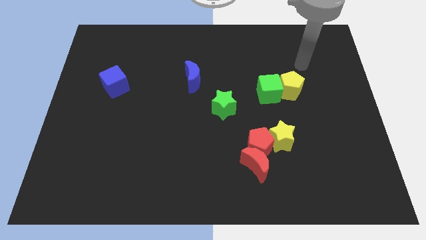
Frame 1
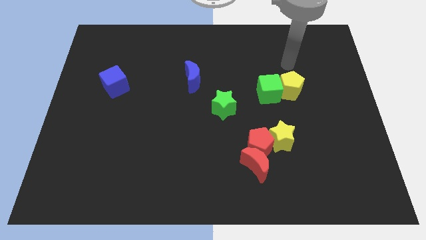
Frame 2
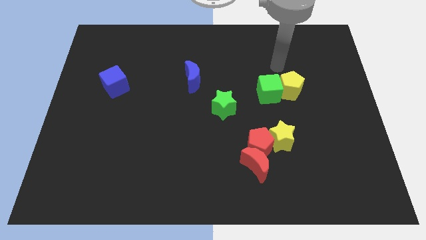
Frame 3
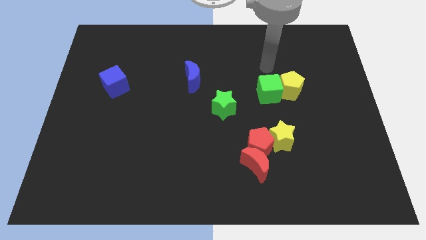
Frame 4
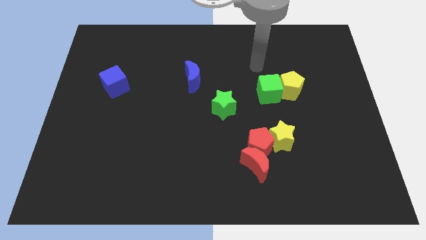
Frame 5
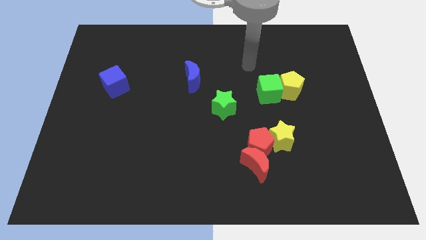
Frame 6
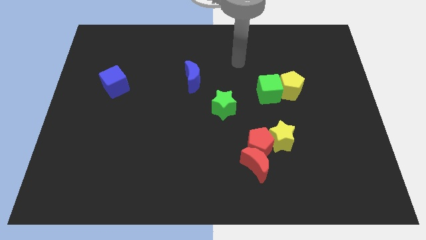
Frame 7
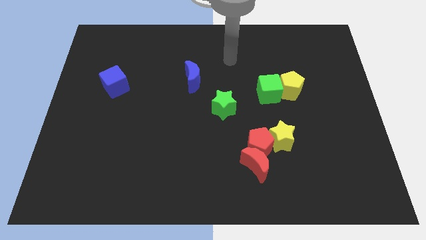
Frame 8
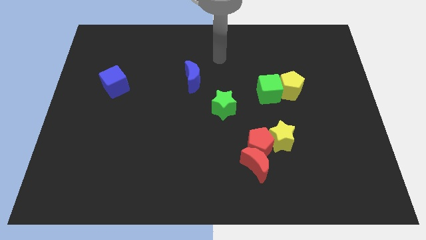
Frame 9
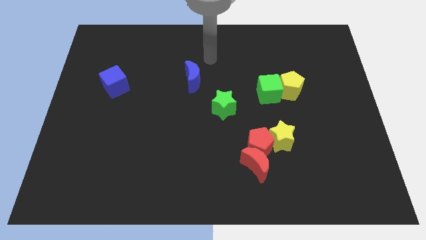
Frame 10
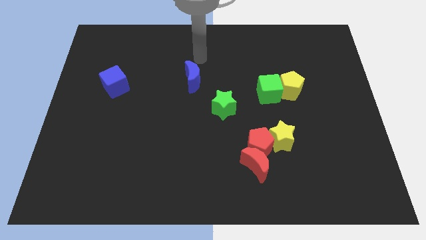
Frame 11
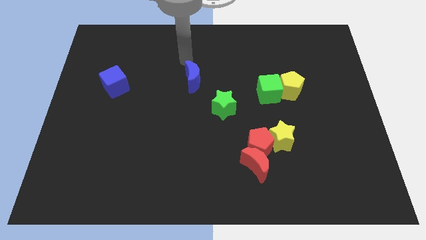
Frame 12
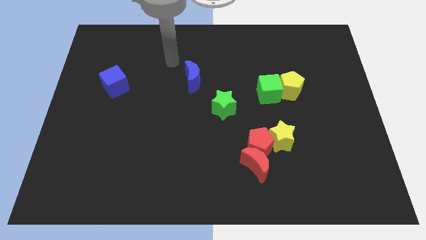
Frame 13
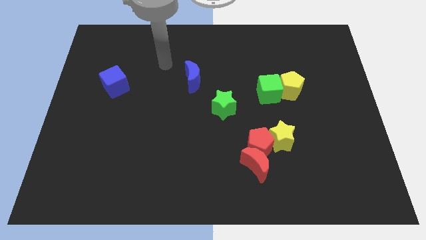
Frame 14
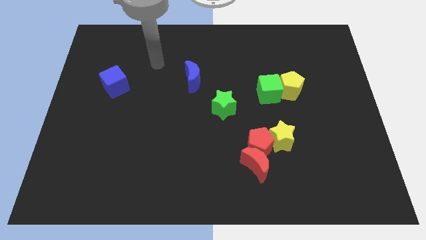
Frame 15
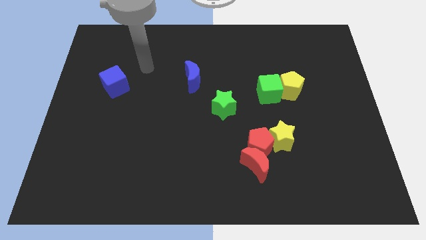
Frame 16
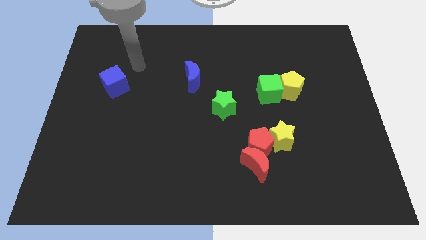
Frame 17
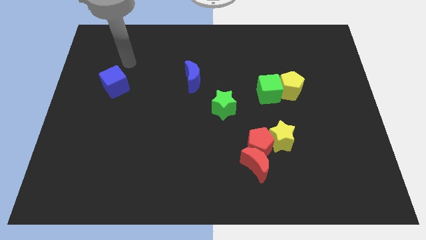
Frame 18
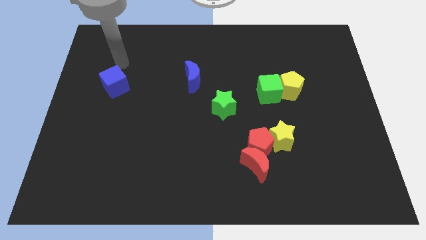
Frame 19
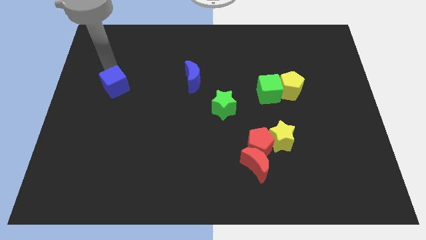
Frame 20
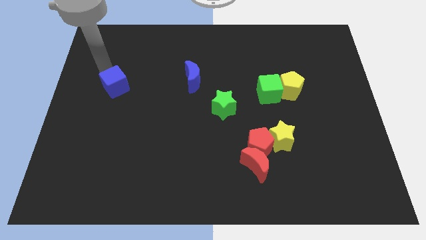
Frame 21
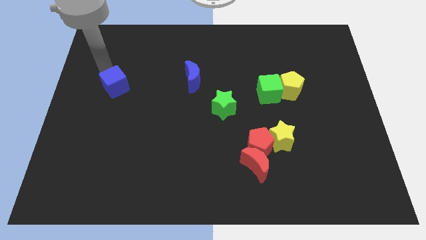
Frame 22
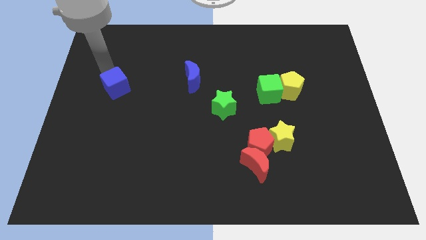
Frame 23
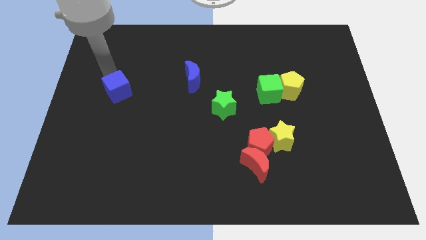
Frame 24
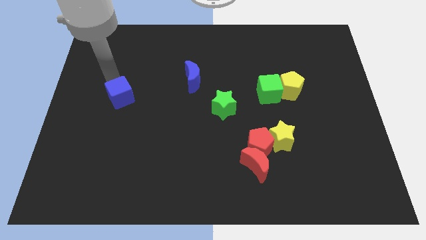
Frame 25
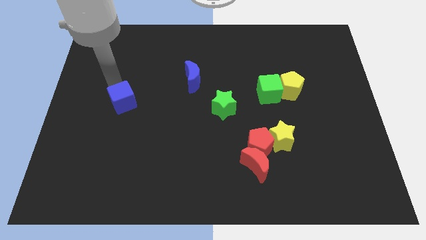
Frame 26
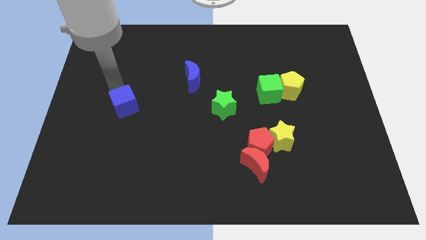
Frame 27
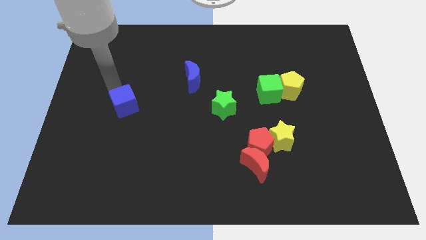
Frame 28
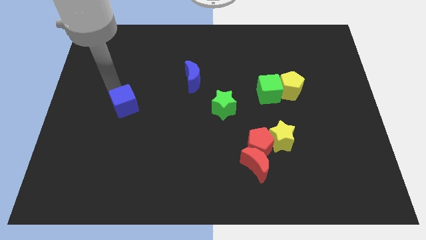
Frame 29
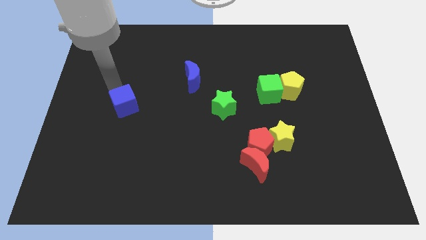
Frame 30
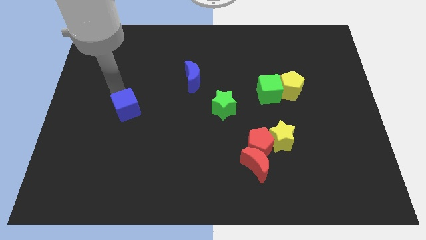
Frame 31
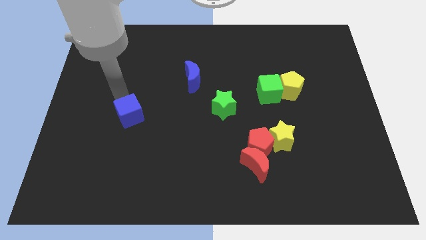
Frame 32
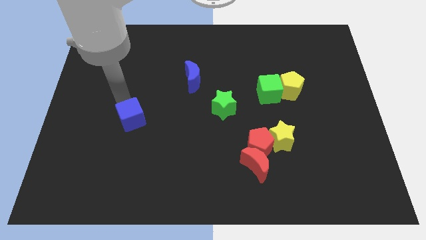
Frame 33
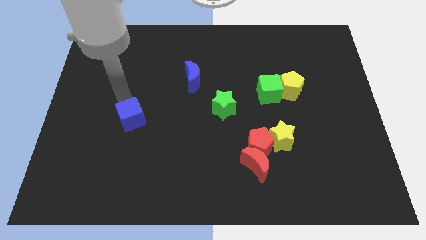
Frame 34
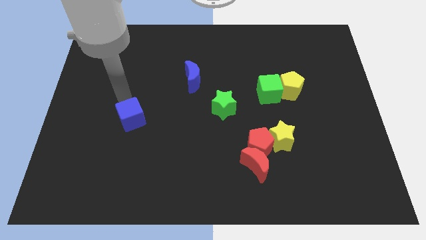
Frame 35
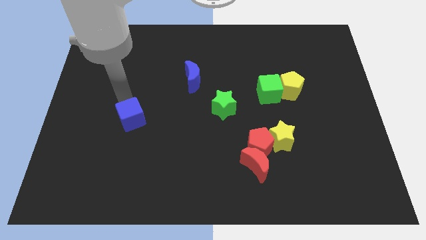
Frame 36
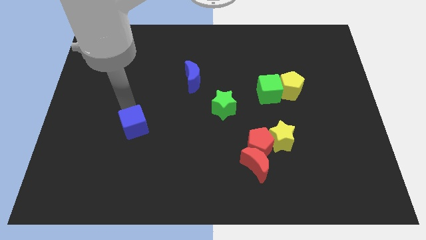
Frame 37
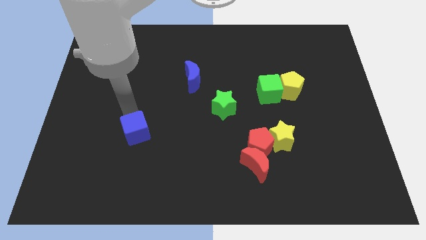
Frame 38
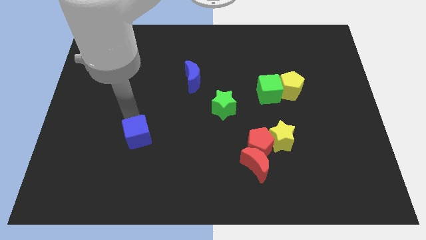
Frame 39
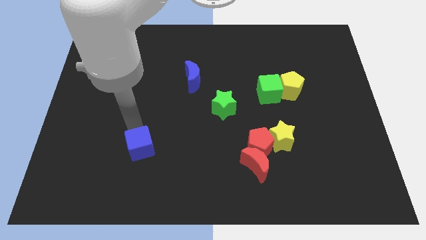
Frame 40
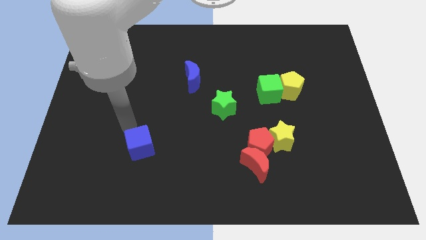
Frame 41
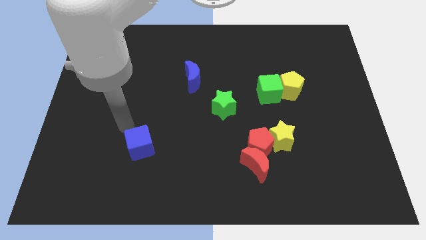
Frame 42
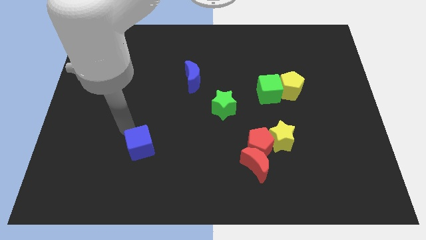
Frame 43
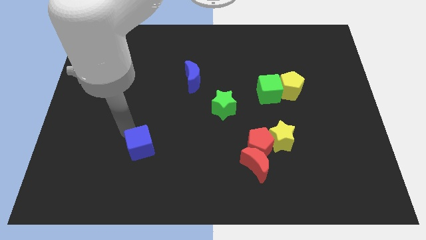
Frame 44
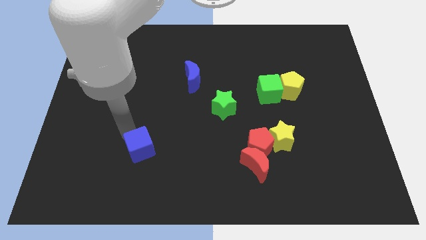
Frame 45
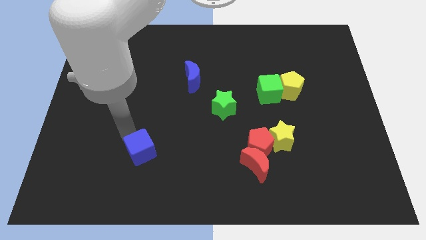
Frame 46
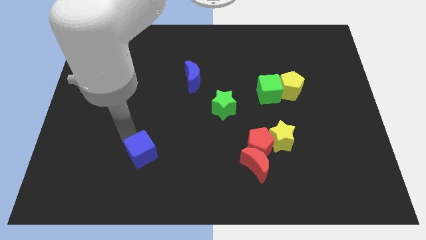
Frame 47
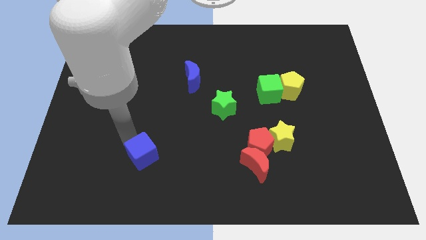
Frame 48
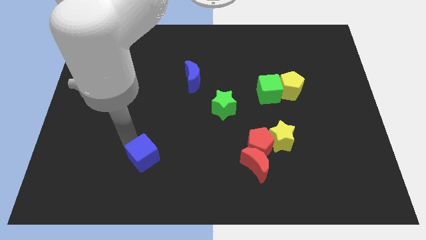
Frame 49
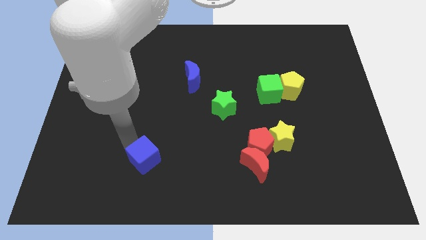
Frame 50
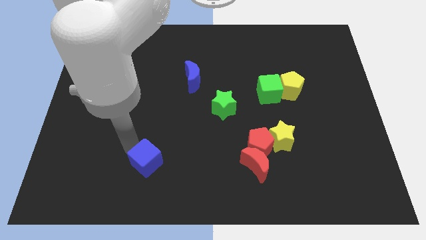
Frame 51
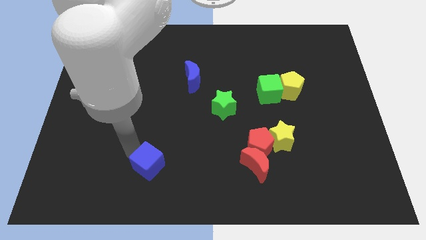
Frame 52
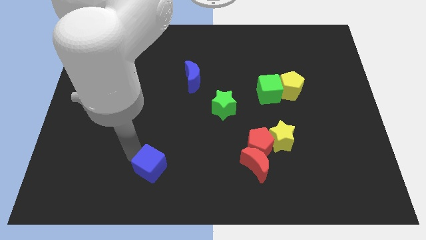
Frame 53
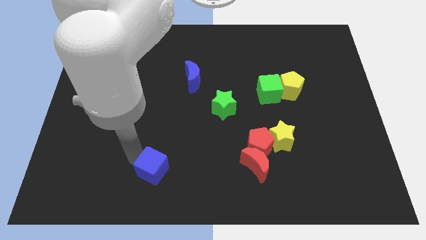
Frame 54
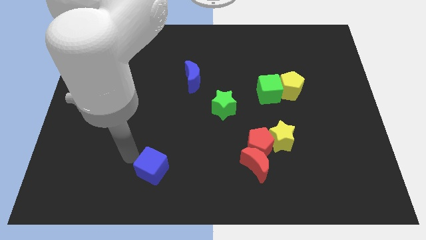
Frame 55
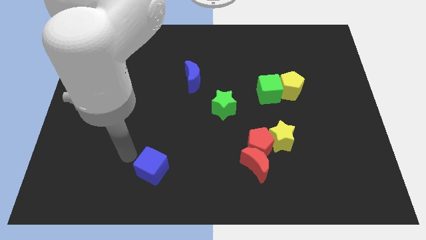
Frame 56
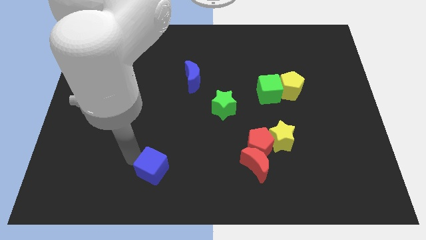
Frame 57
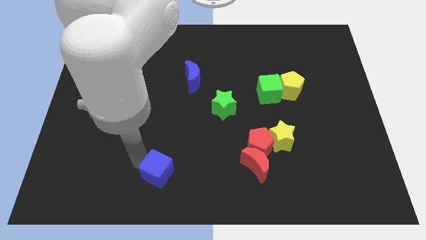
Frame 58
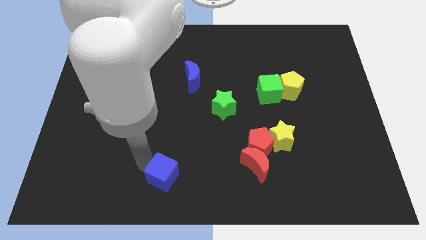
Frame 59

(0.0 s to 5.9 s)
push the blue cube to the bottom

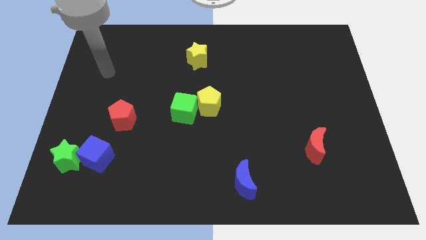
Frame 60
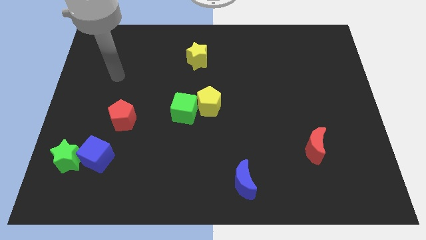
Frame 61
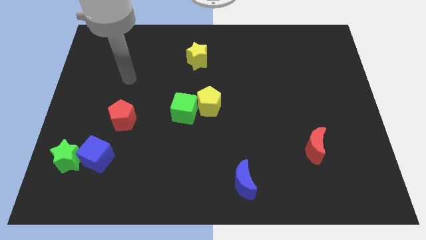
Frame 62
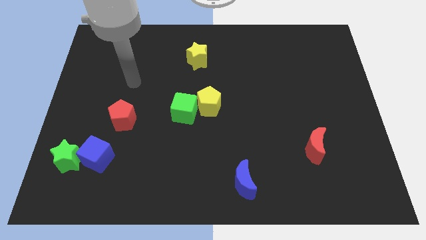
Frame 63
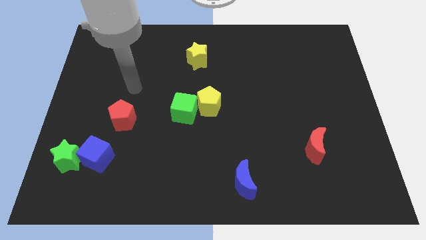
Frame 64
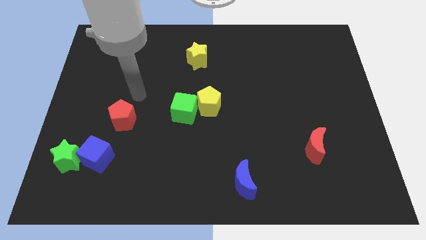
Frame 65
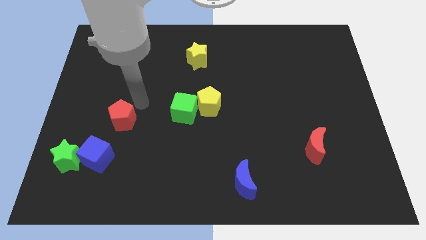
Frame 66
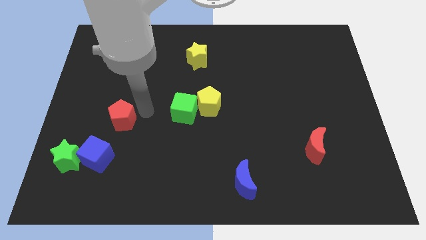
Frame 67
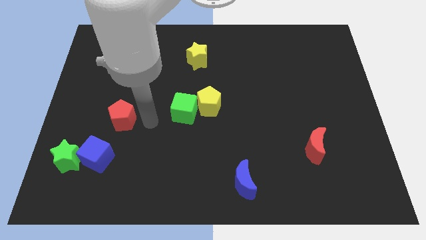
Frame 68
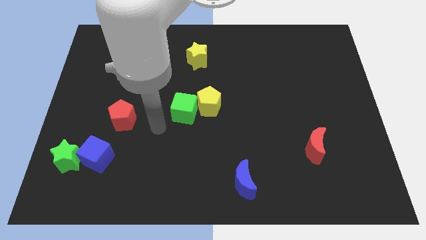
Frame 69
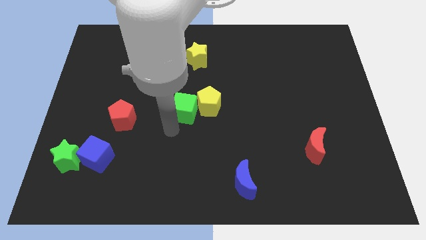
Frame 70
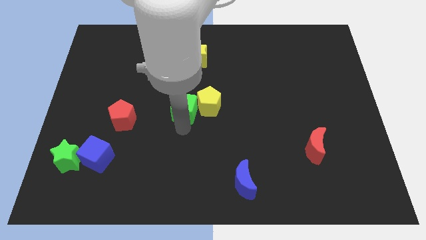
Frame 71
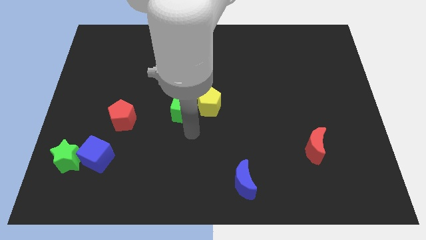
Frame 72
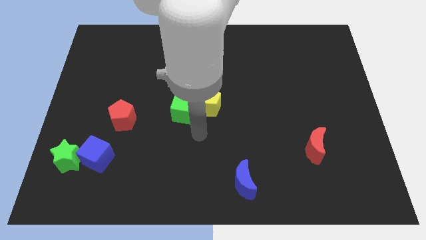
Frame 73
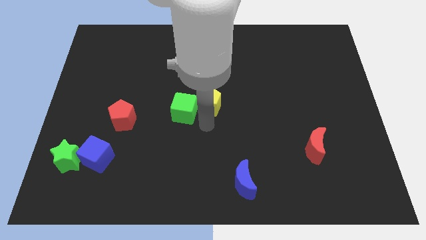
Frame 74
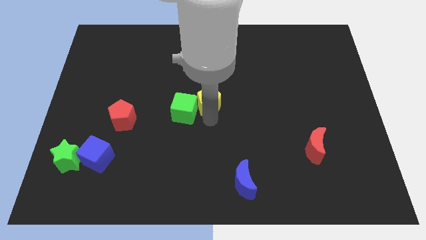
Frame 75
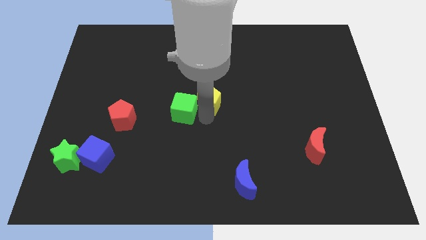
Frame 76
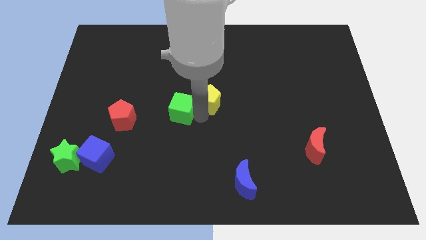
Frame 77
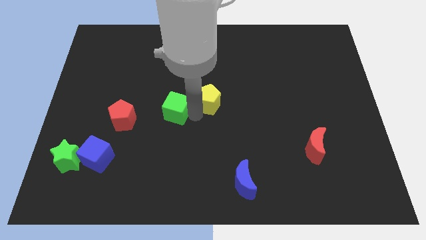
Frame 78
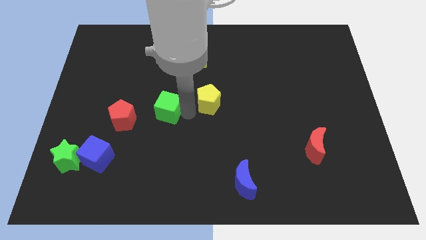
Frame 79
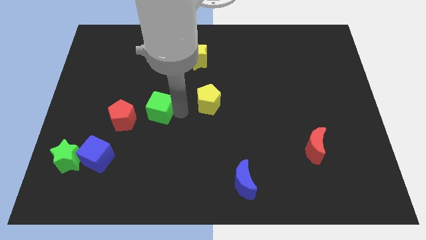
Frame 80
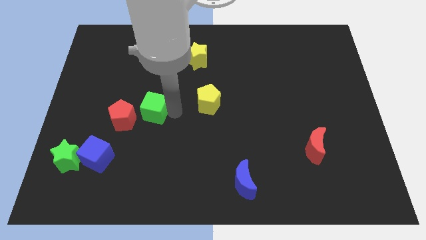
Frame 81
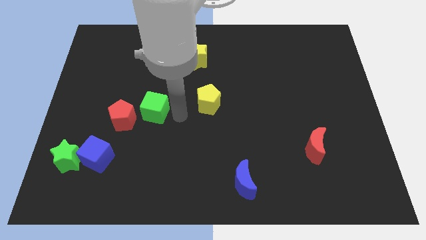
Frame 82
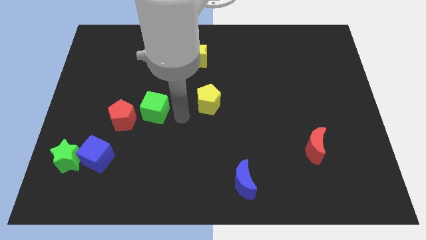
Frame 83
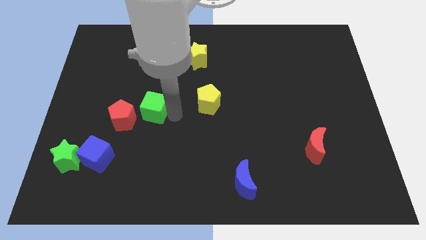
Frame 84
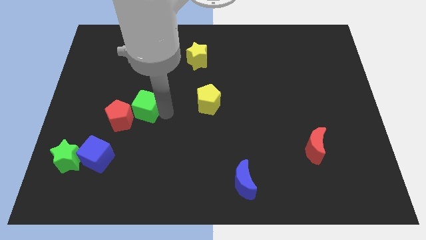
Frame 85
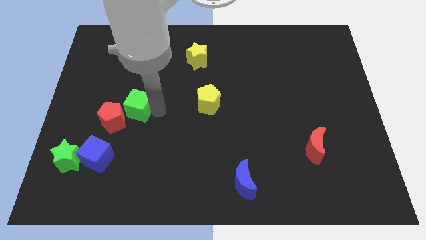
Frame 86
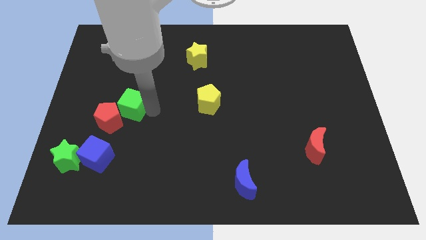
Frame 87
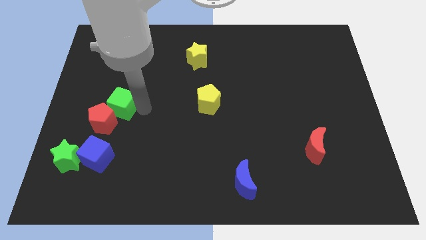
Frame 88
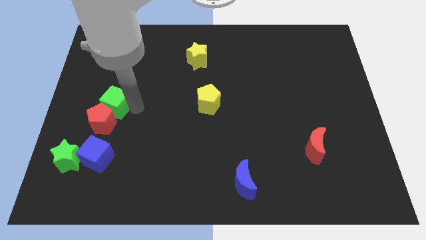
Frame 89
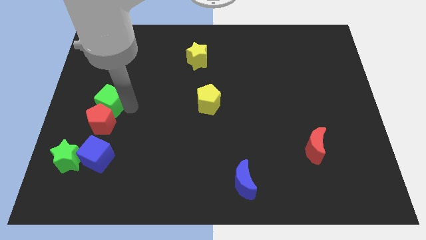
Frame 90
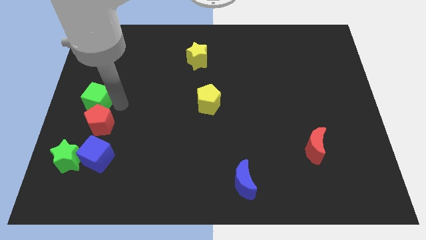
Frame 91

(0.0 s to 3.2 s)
move the green cube to the center left
